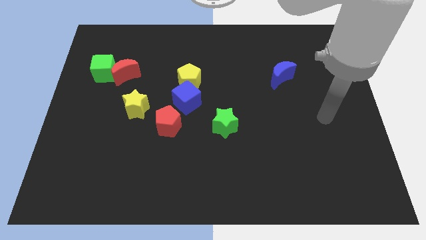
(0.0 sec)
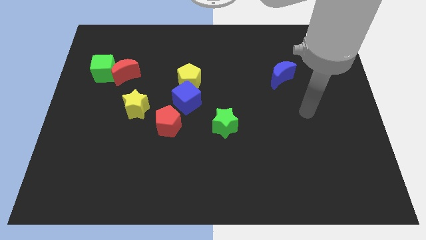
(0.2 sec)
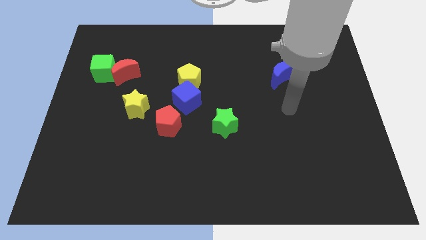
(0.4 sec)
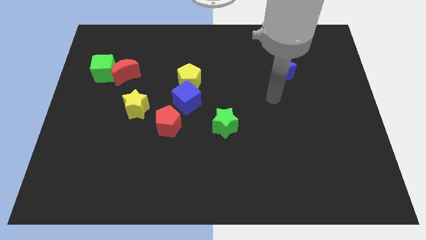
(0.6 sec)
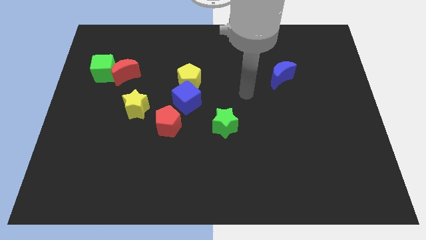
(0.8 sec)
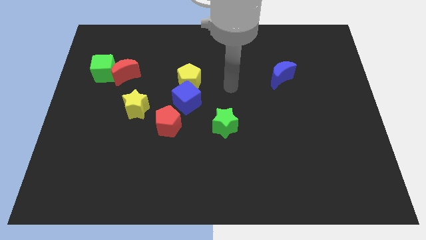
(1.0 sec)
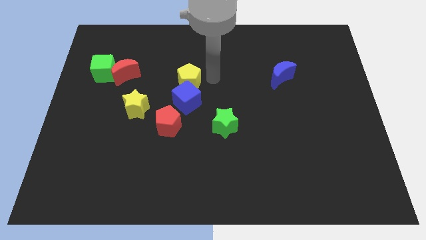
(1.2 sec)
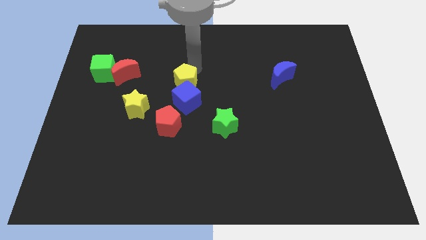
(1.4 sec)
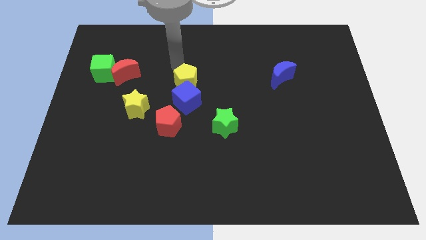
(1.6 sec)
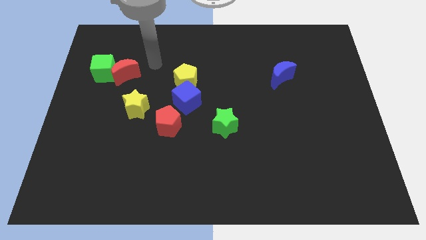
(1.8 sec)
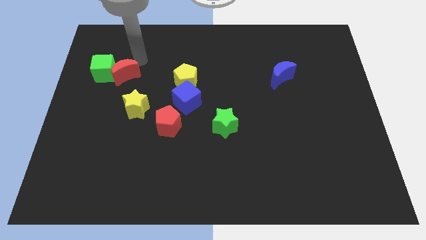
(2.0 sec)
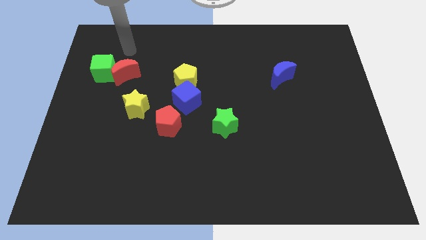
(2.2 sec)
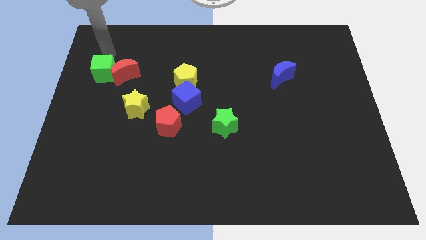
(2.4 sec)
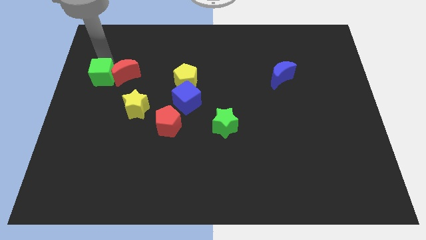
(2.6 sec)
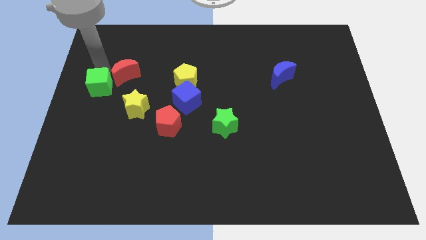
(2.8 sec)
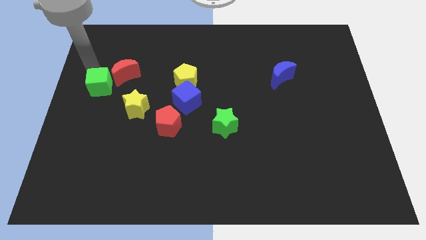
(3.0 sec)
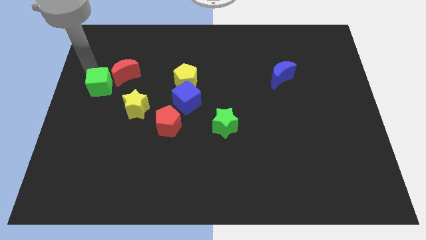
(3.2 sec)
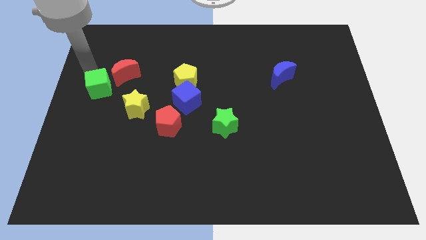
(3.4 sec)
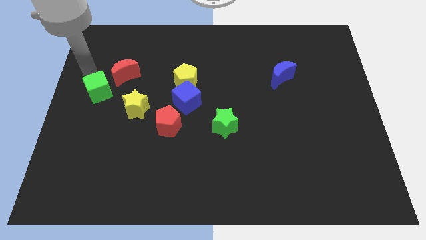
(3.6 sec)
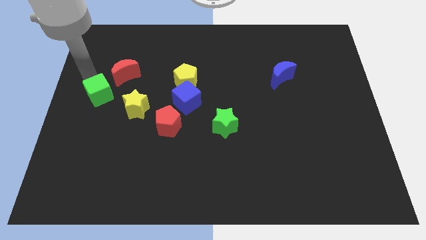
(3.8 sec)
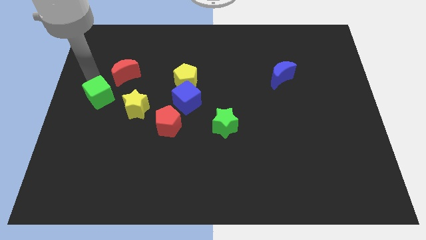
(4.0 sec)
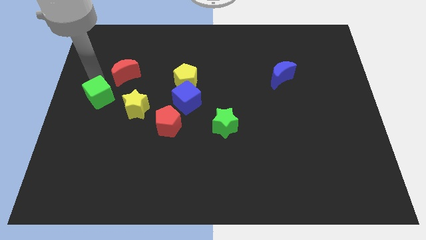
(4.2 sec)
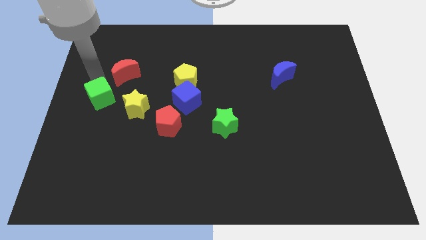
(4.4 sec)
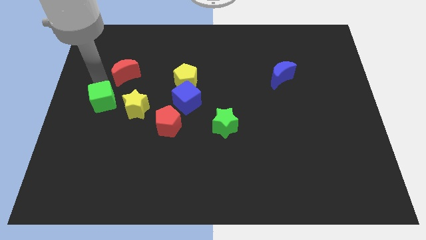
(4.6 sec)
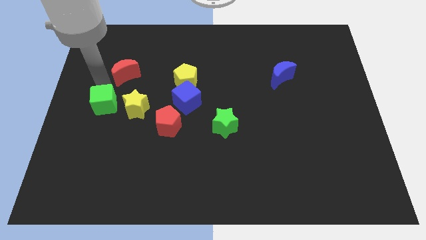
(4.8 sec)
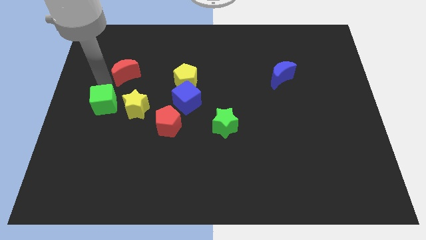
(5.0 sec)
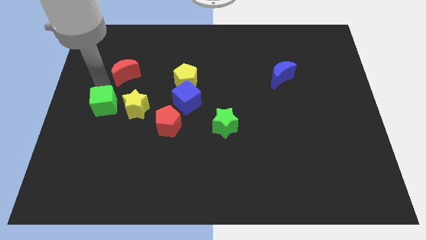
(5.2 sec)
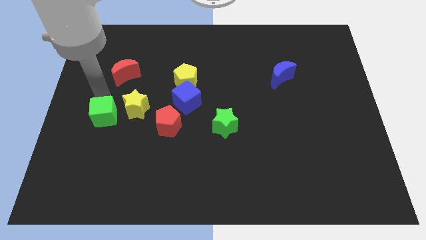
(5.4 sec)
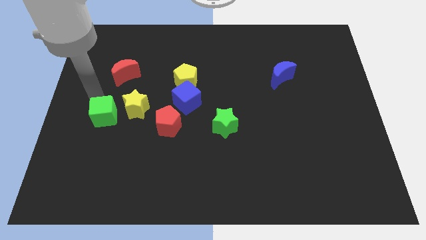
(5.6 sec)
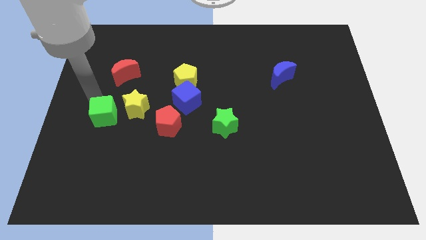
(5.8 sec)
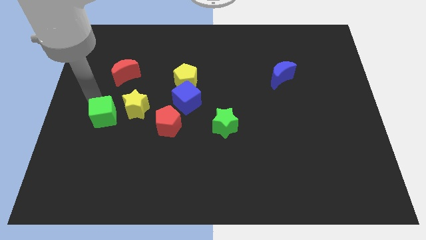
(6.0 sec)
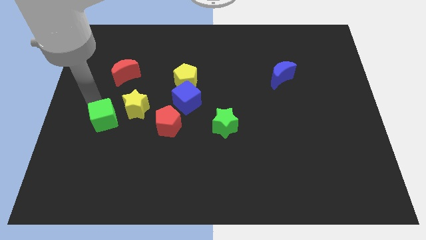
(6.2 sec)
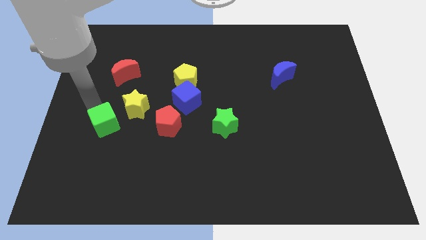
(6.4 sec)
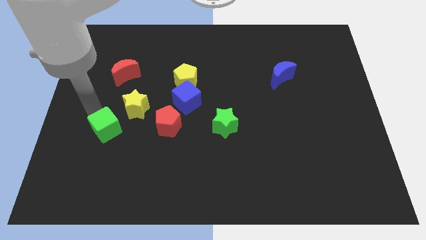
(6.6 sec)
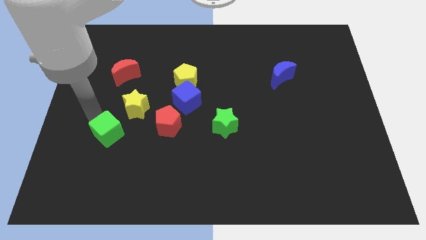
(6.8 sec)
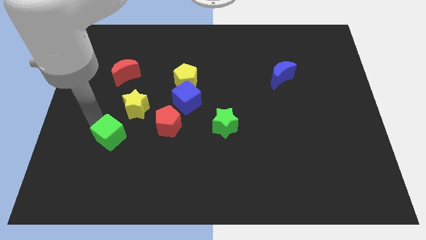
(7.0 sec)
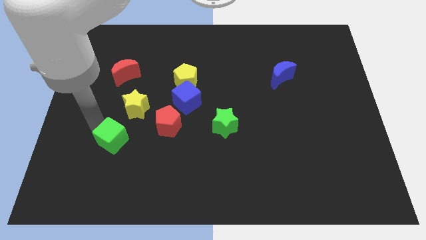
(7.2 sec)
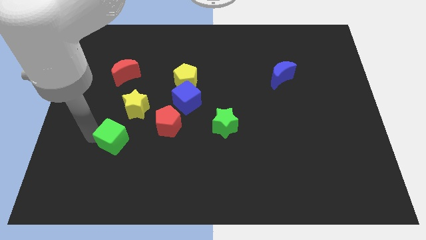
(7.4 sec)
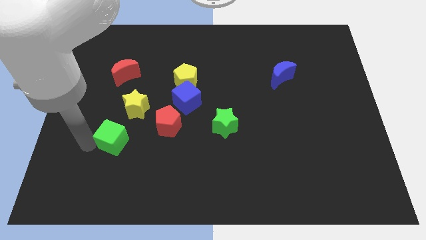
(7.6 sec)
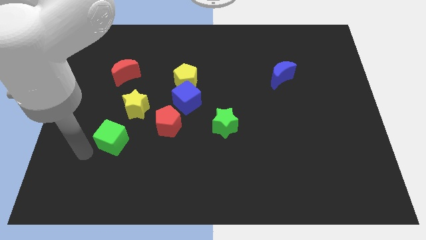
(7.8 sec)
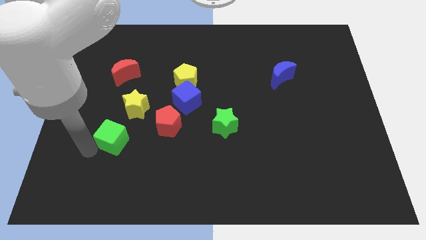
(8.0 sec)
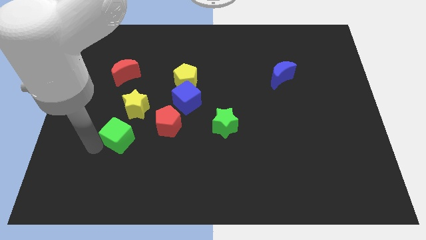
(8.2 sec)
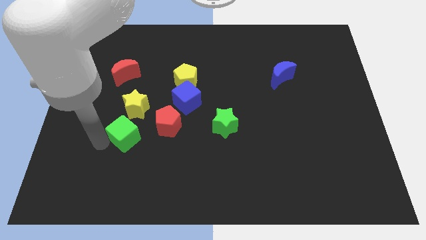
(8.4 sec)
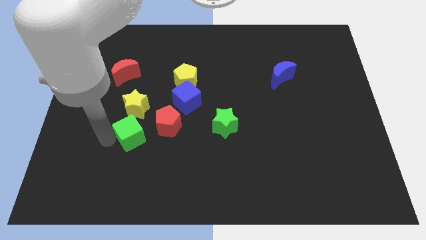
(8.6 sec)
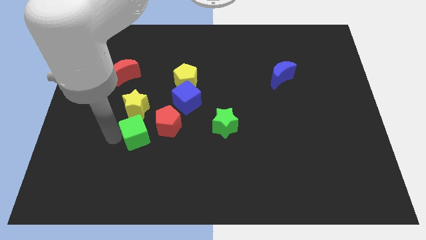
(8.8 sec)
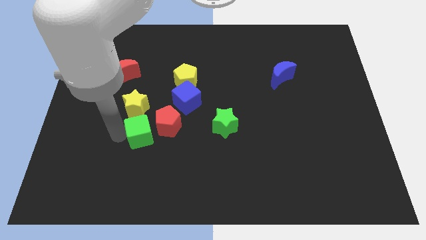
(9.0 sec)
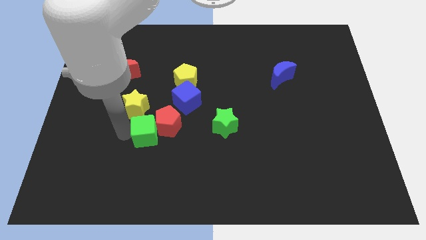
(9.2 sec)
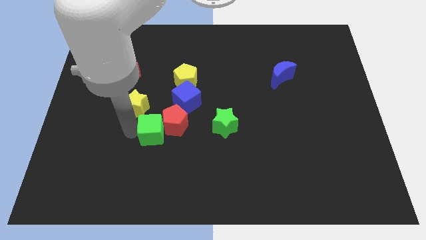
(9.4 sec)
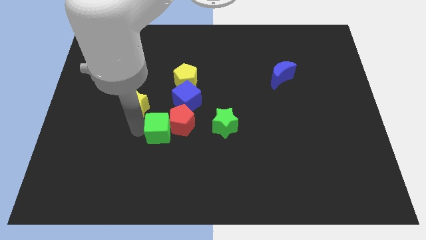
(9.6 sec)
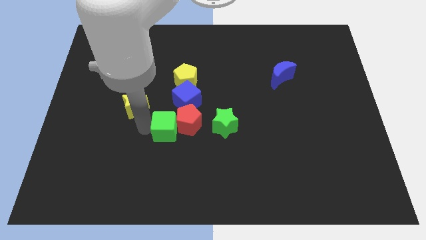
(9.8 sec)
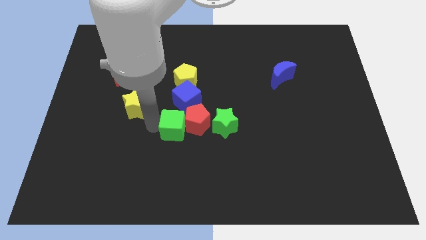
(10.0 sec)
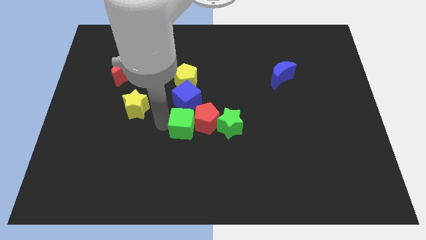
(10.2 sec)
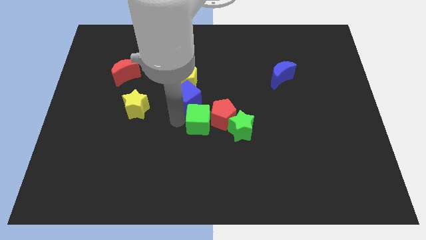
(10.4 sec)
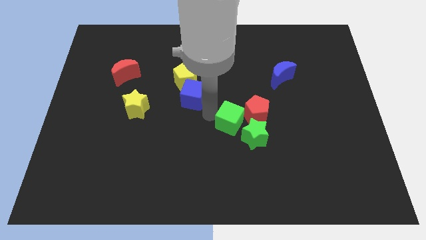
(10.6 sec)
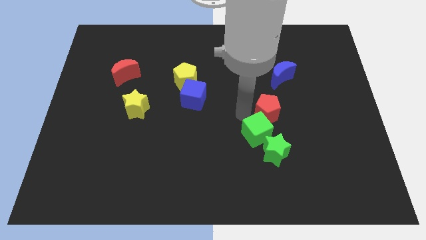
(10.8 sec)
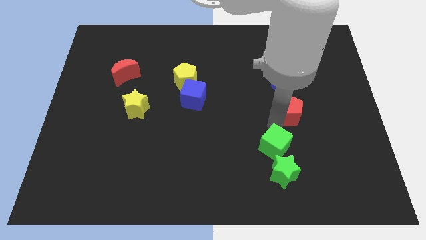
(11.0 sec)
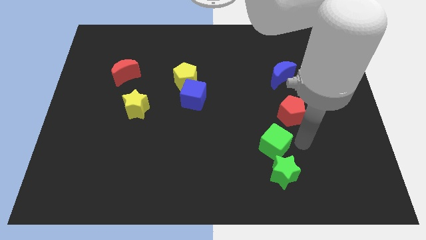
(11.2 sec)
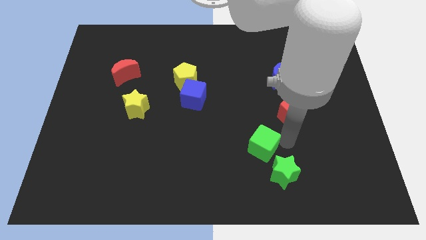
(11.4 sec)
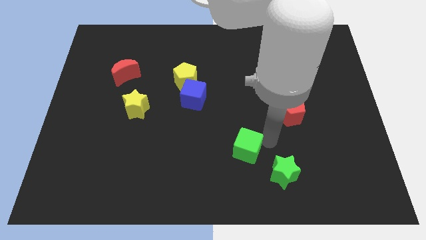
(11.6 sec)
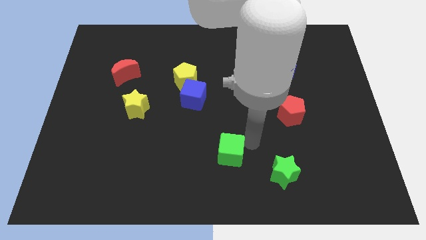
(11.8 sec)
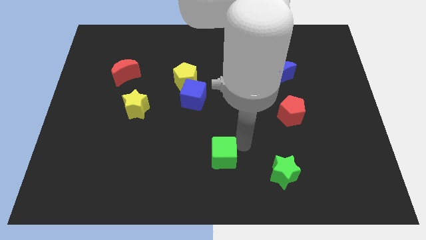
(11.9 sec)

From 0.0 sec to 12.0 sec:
move the green cube to the bottom

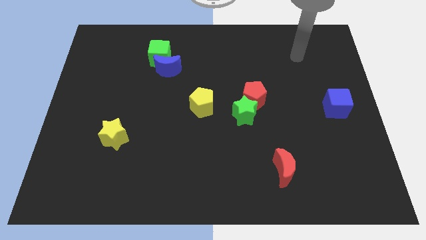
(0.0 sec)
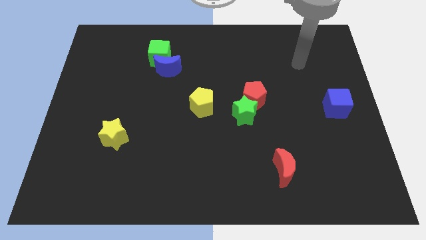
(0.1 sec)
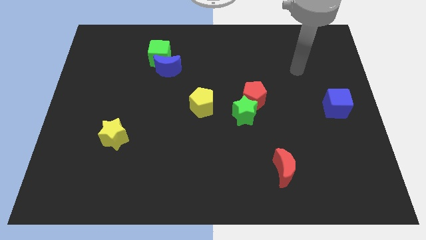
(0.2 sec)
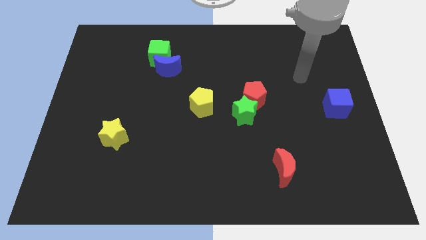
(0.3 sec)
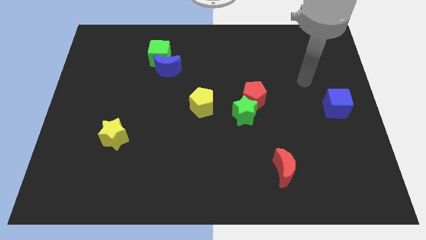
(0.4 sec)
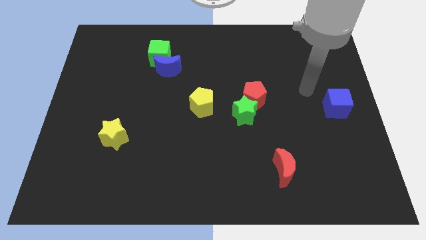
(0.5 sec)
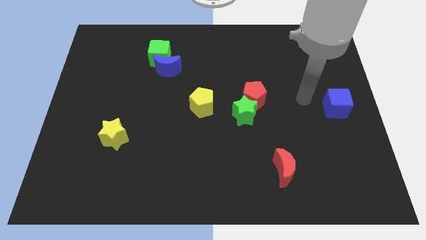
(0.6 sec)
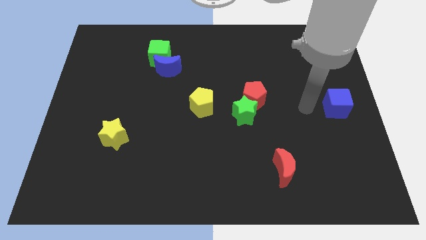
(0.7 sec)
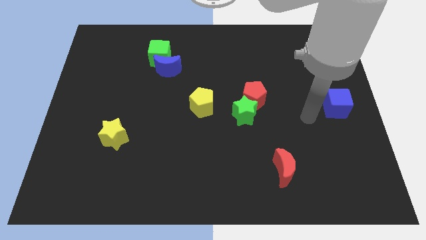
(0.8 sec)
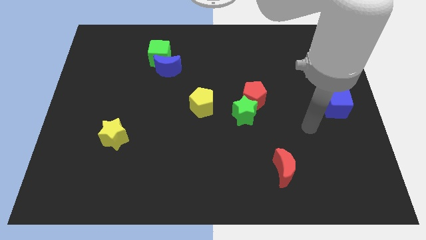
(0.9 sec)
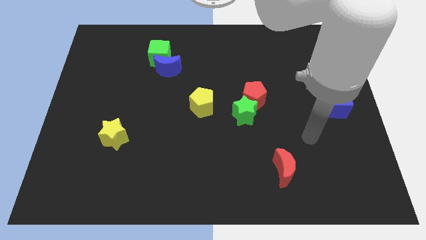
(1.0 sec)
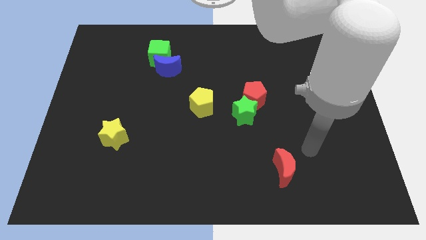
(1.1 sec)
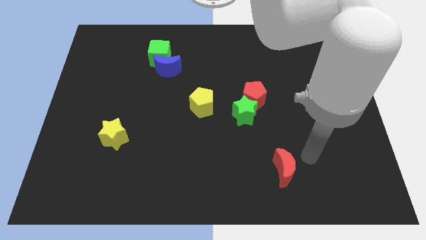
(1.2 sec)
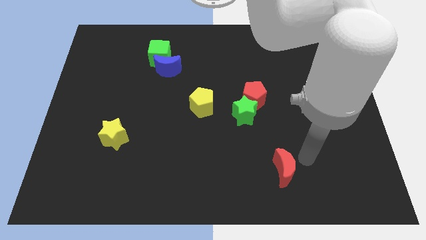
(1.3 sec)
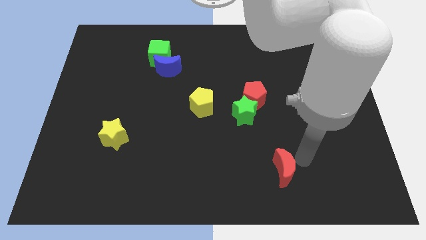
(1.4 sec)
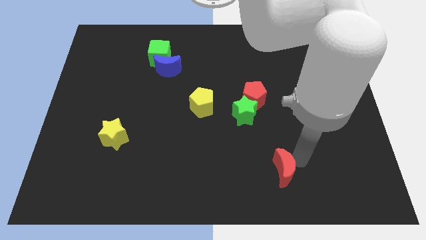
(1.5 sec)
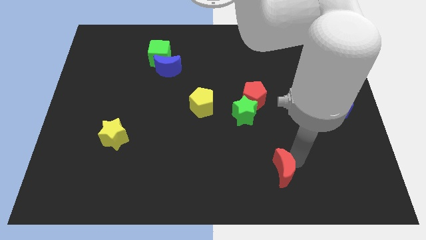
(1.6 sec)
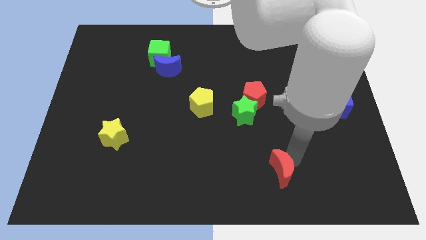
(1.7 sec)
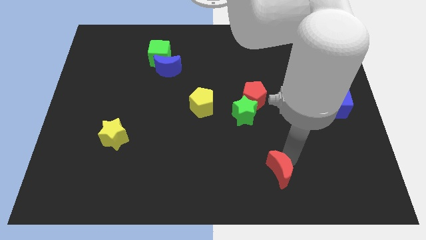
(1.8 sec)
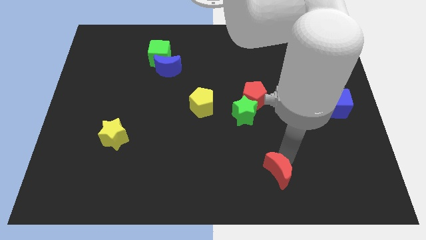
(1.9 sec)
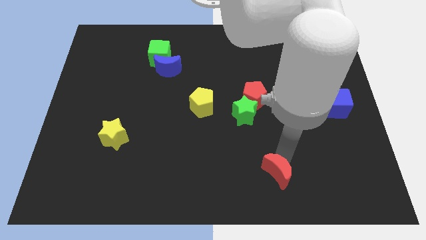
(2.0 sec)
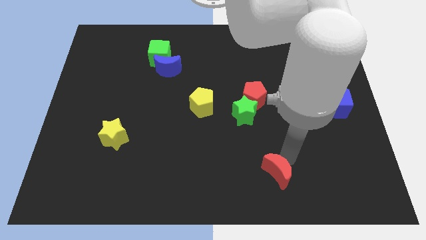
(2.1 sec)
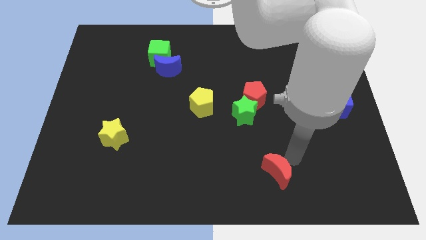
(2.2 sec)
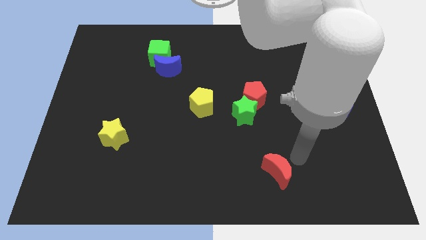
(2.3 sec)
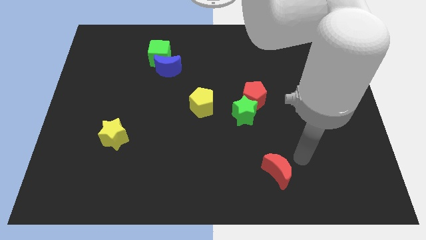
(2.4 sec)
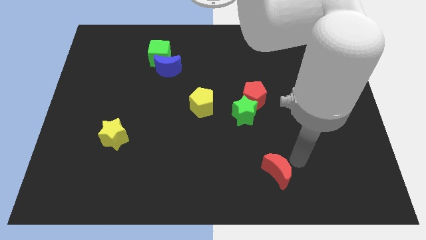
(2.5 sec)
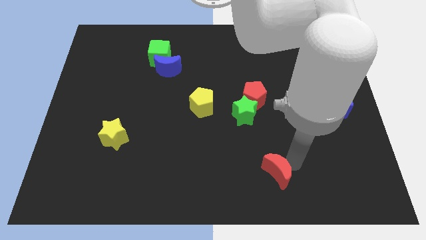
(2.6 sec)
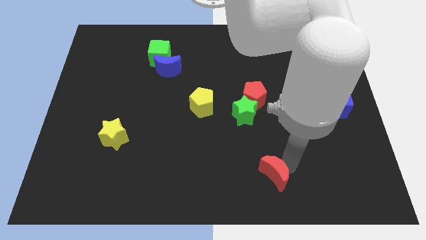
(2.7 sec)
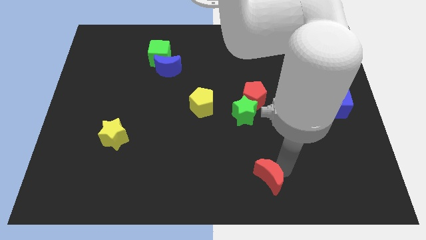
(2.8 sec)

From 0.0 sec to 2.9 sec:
push the red moon to the bottom
